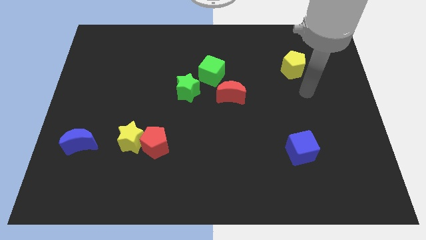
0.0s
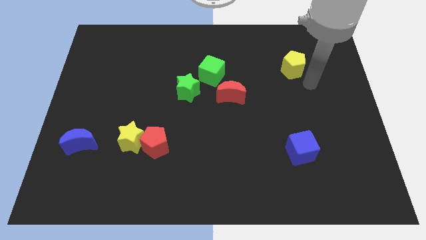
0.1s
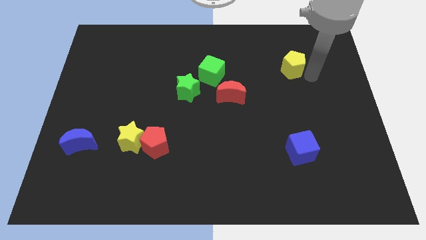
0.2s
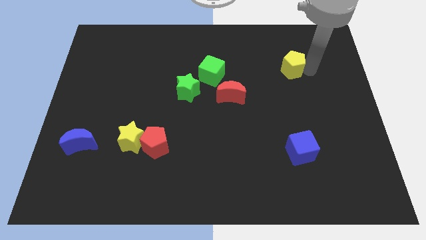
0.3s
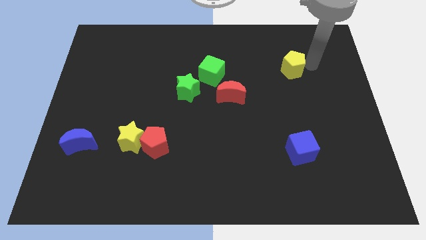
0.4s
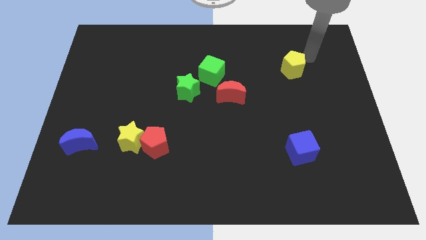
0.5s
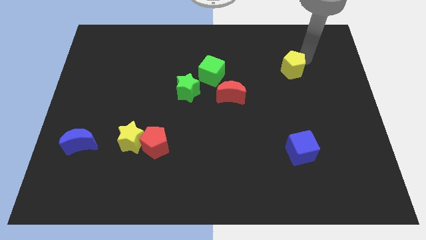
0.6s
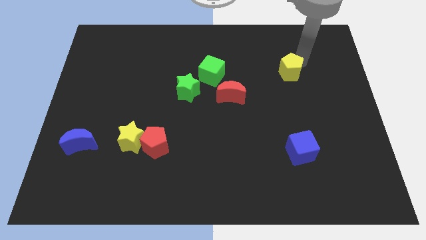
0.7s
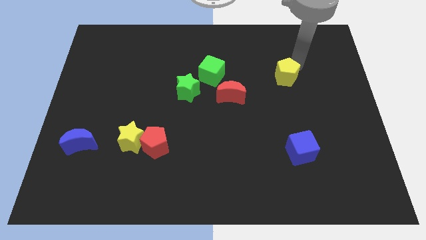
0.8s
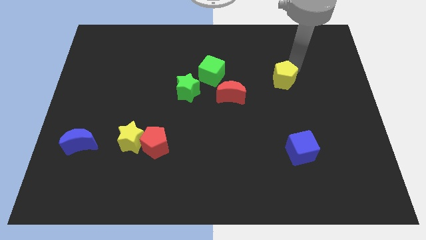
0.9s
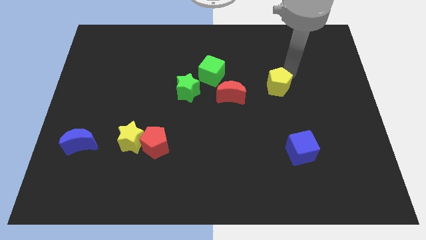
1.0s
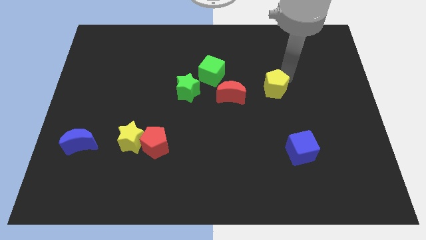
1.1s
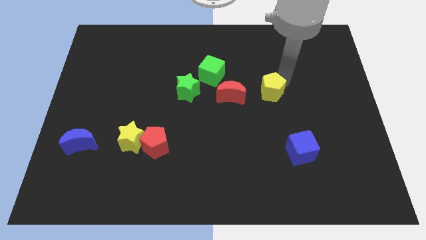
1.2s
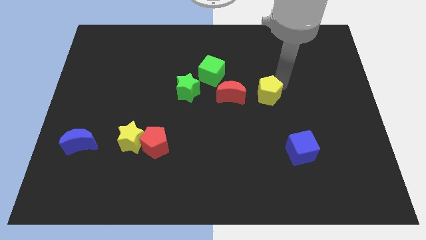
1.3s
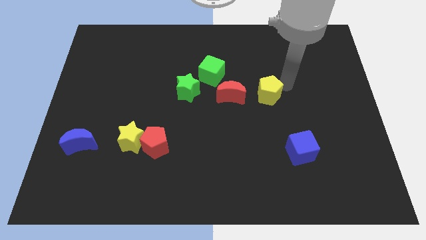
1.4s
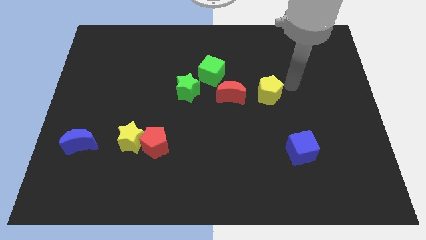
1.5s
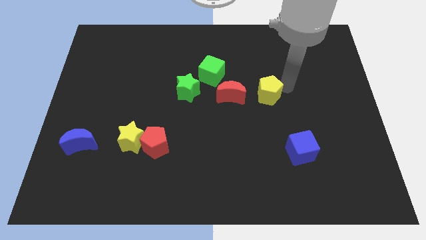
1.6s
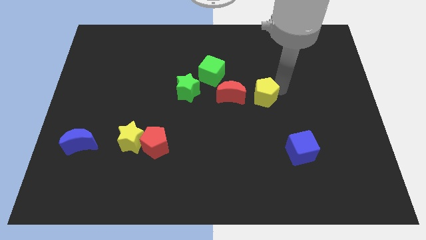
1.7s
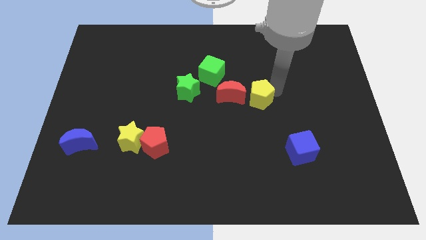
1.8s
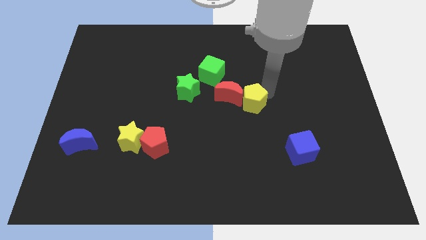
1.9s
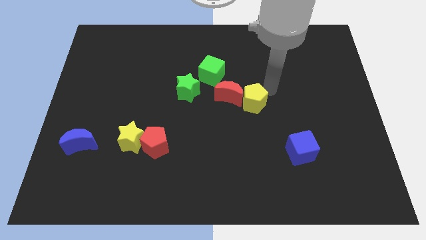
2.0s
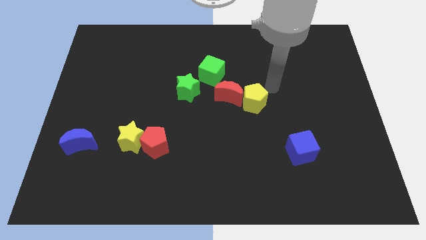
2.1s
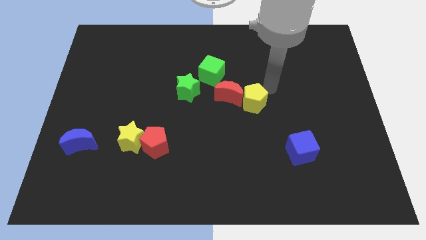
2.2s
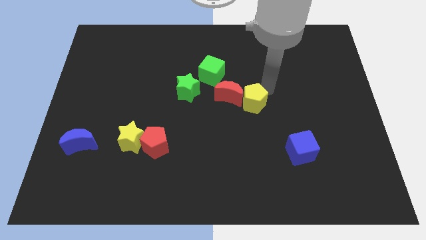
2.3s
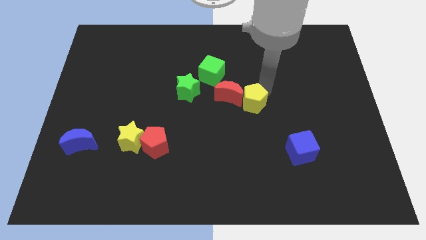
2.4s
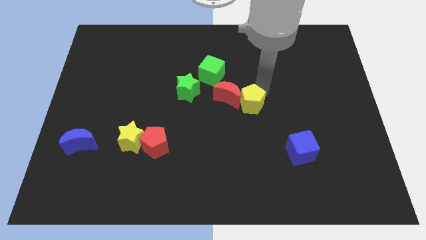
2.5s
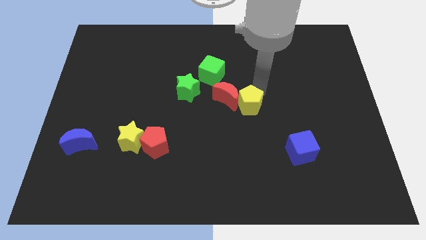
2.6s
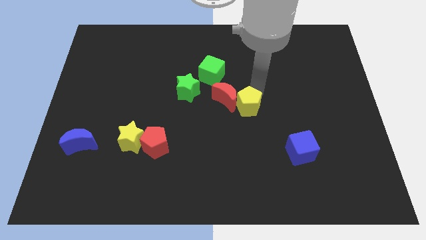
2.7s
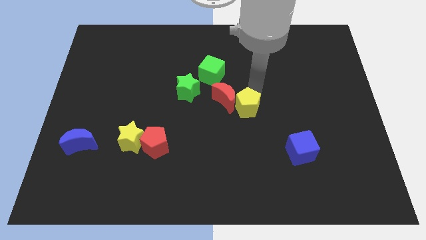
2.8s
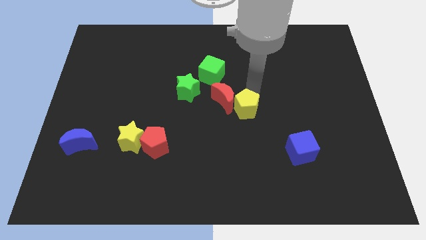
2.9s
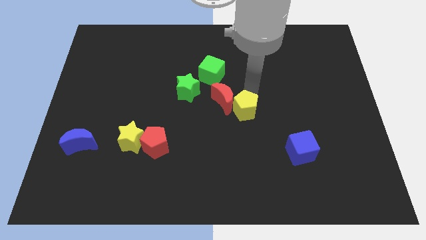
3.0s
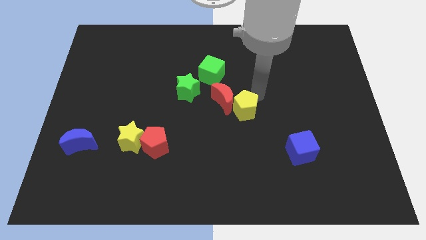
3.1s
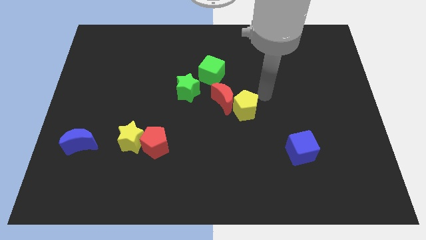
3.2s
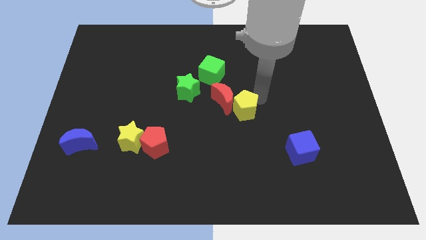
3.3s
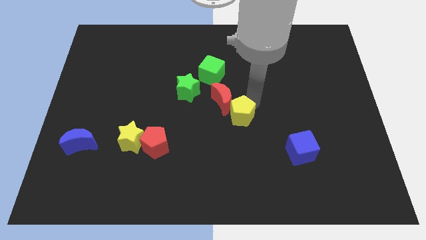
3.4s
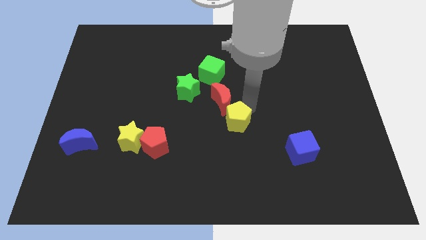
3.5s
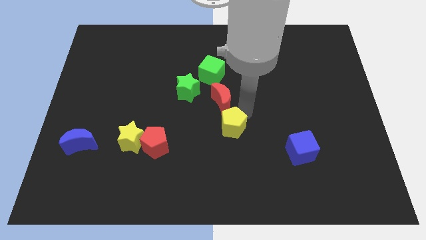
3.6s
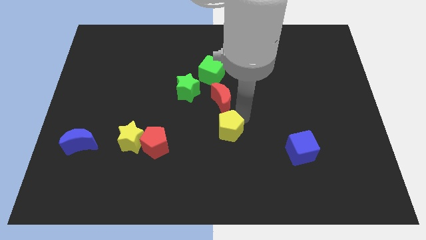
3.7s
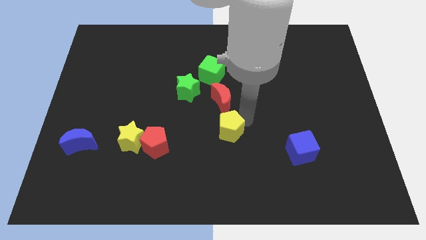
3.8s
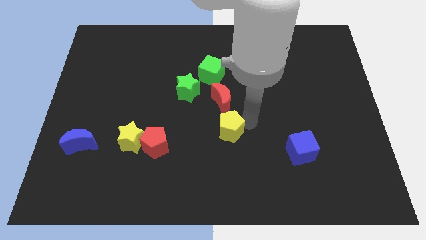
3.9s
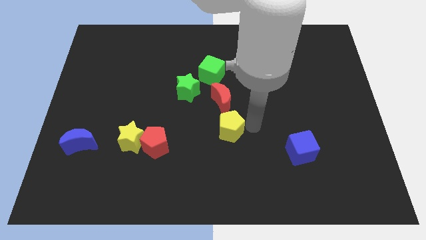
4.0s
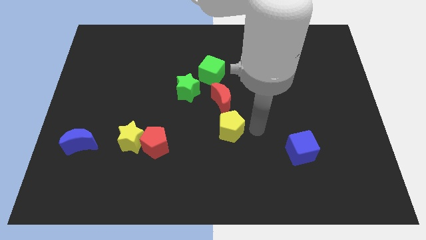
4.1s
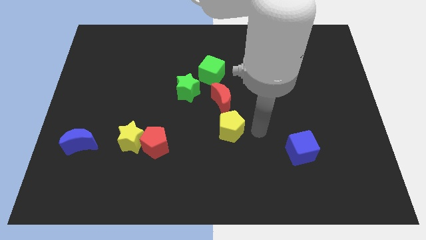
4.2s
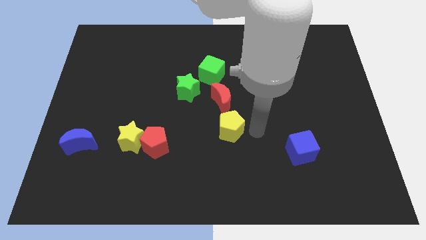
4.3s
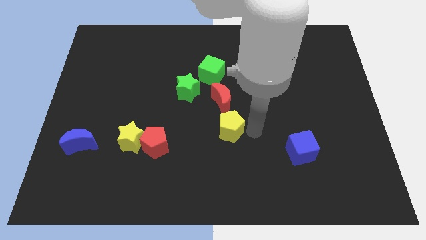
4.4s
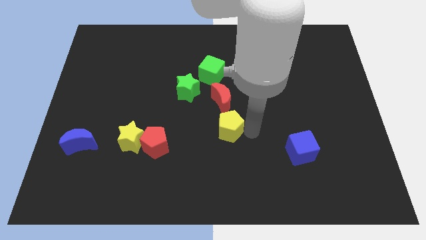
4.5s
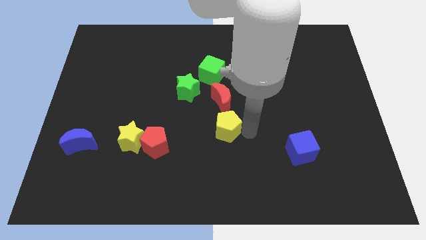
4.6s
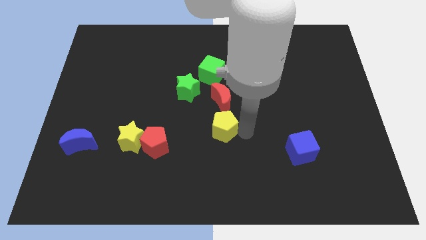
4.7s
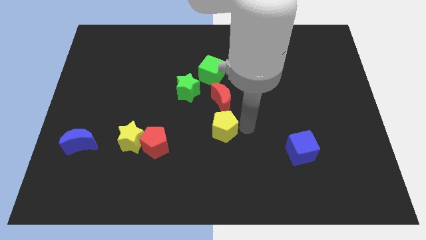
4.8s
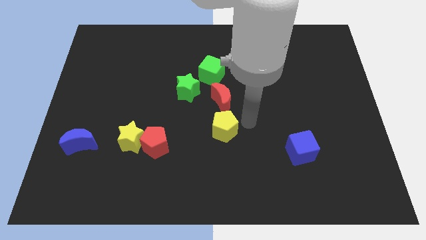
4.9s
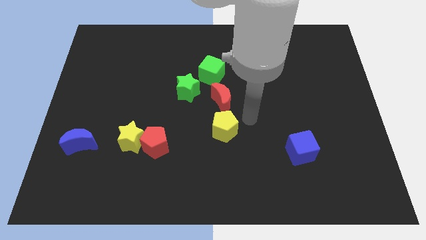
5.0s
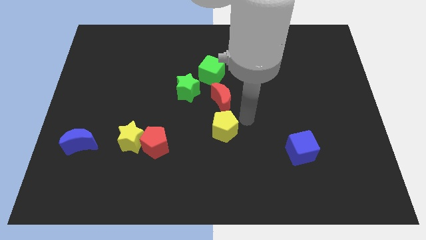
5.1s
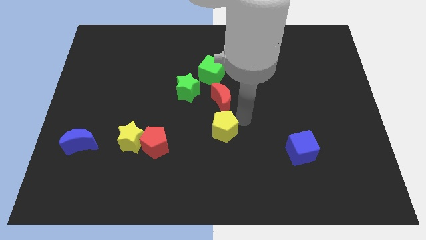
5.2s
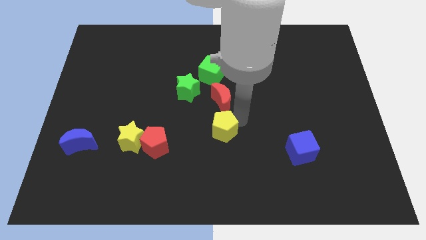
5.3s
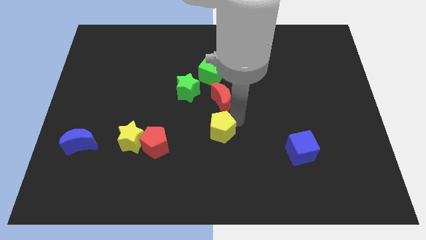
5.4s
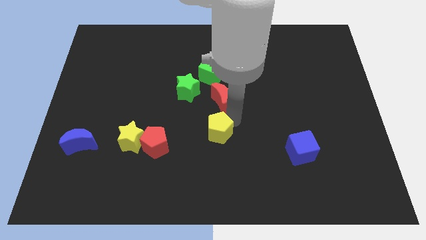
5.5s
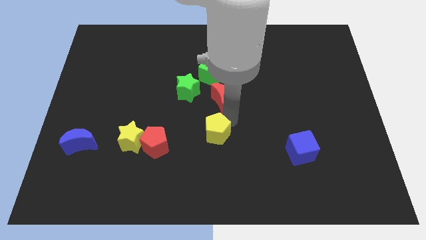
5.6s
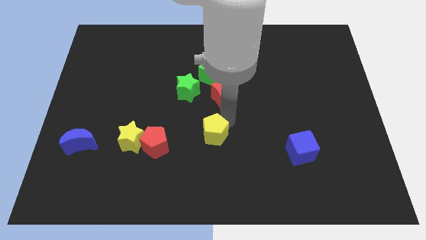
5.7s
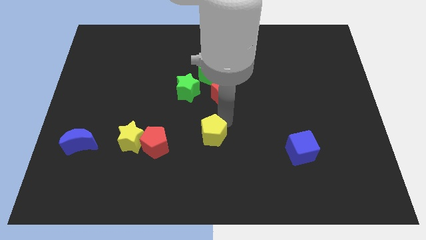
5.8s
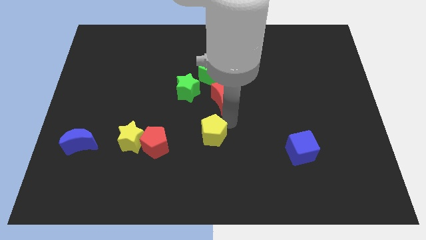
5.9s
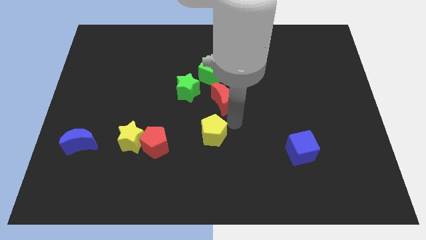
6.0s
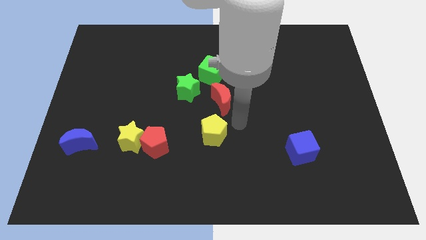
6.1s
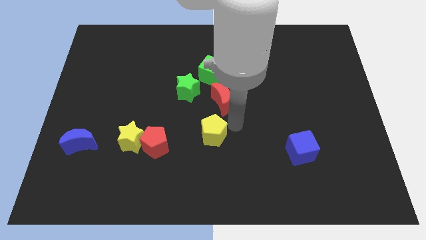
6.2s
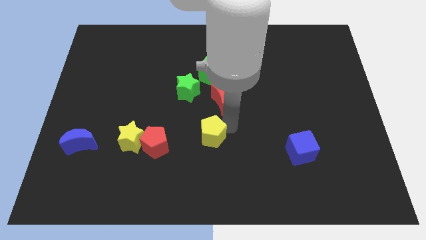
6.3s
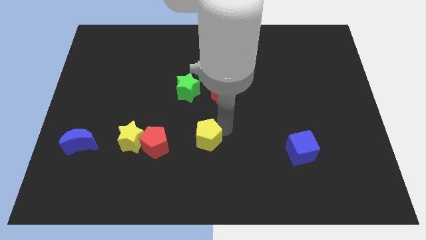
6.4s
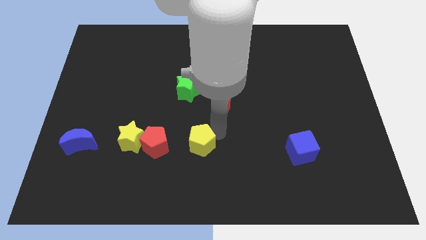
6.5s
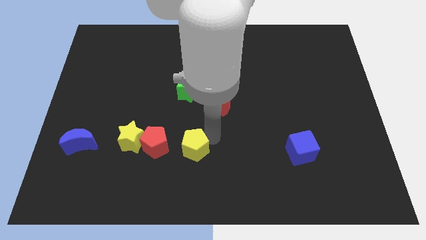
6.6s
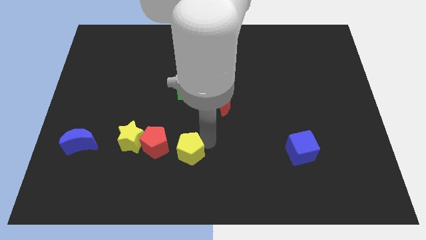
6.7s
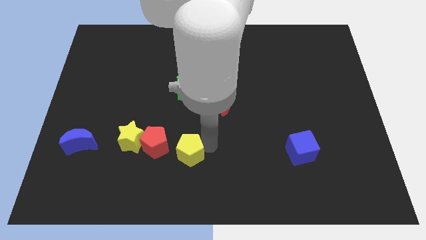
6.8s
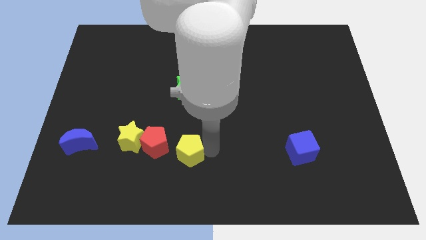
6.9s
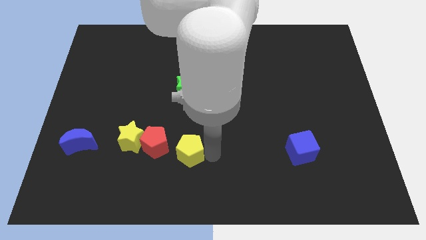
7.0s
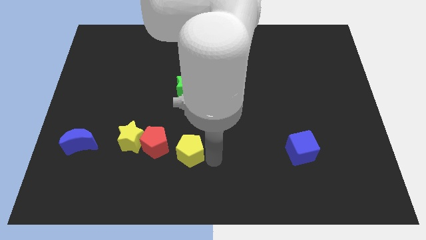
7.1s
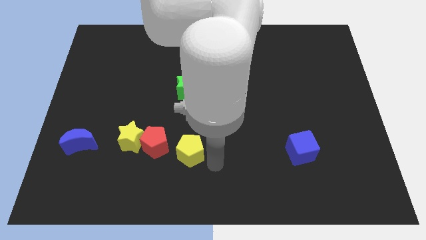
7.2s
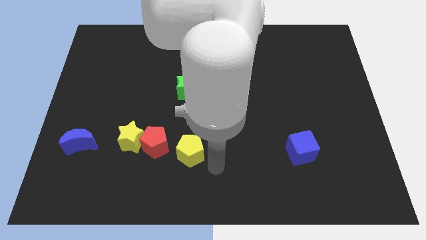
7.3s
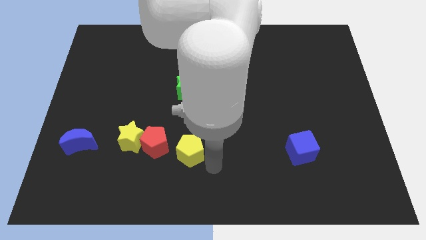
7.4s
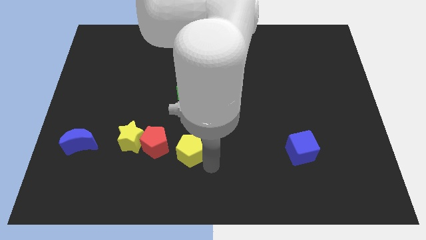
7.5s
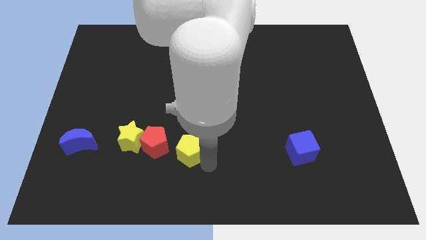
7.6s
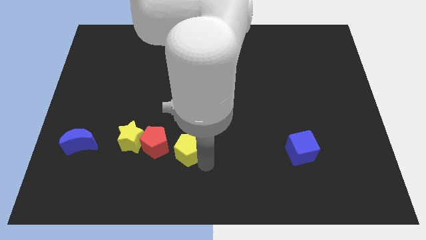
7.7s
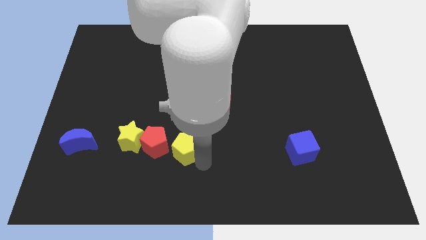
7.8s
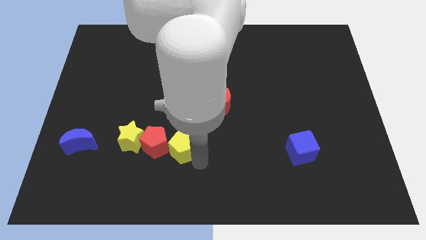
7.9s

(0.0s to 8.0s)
slide the yellow pentagon to the red pentagon
